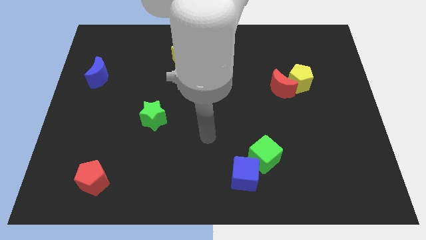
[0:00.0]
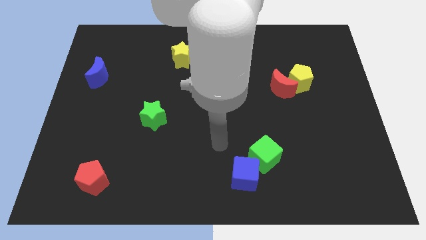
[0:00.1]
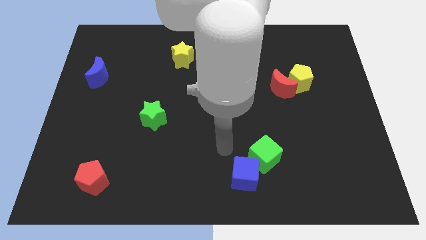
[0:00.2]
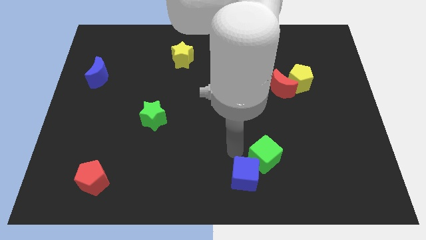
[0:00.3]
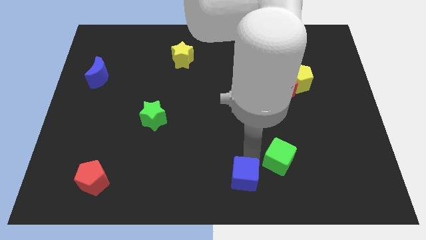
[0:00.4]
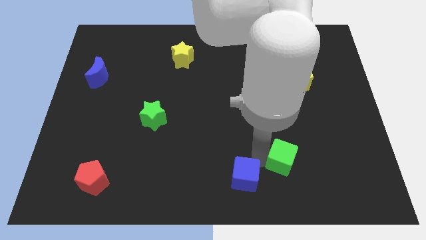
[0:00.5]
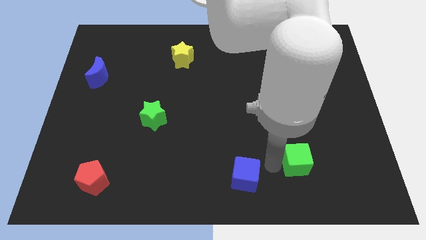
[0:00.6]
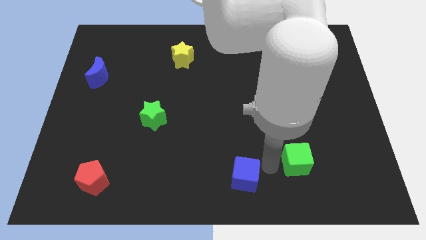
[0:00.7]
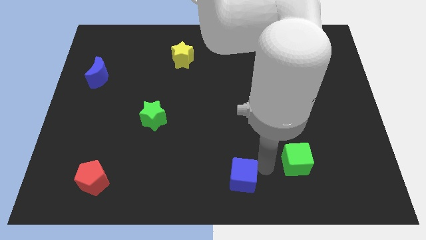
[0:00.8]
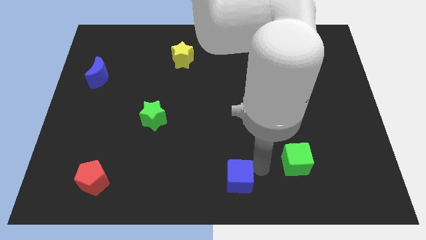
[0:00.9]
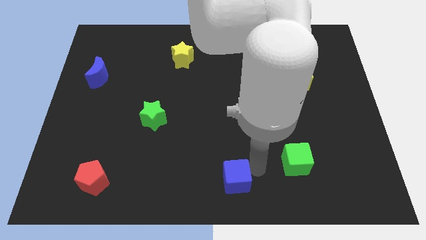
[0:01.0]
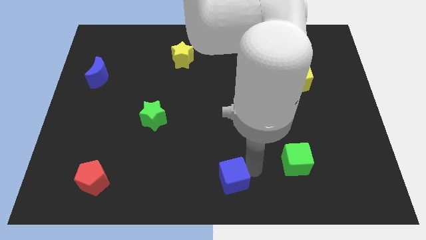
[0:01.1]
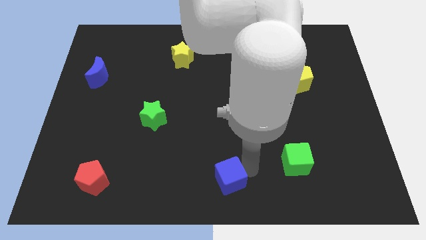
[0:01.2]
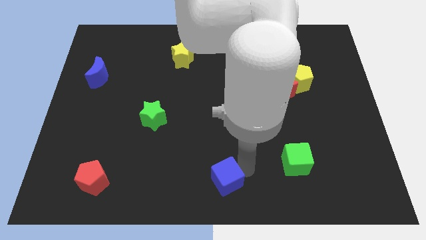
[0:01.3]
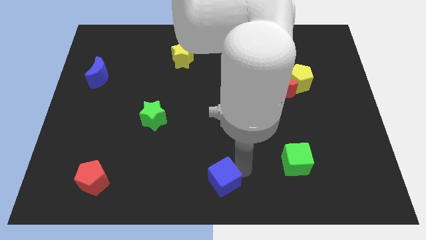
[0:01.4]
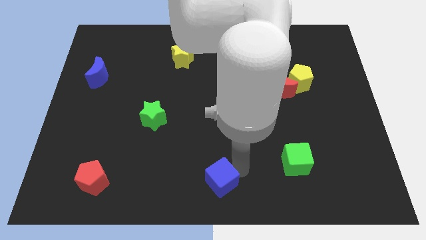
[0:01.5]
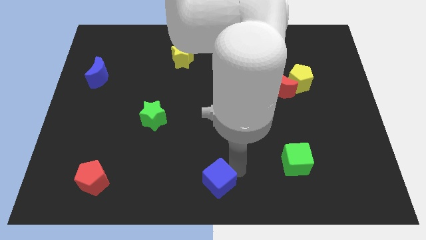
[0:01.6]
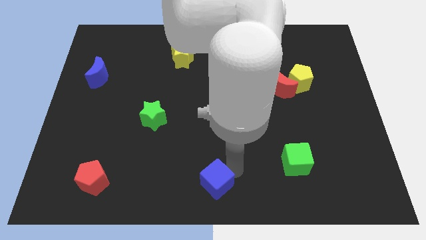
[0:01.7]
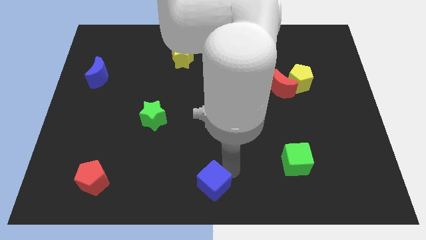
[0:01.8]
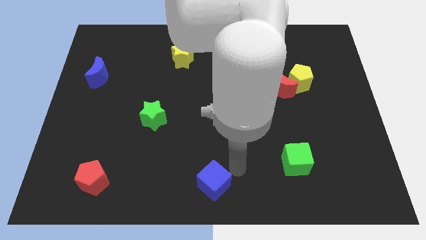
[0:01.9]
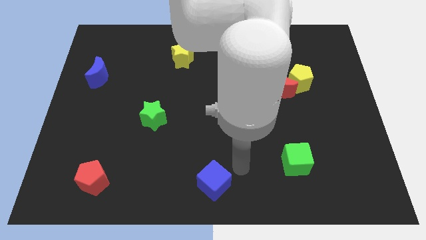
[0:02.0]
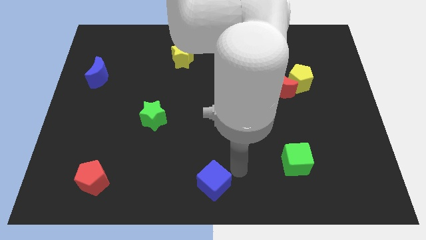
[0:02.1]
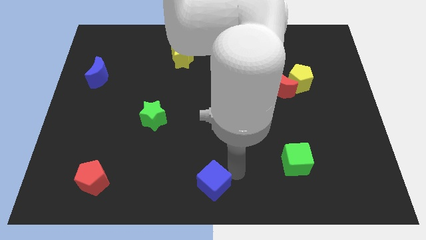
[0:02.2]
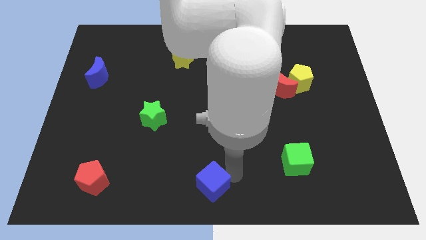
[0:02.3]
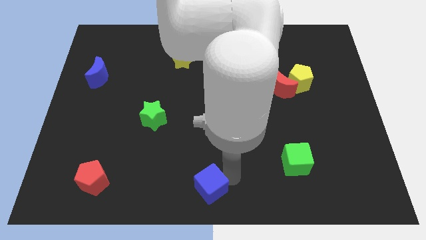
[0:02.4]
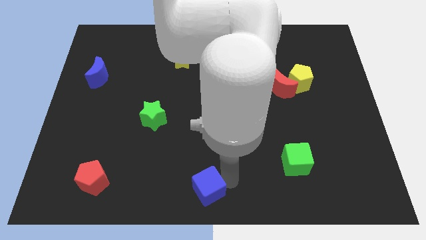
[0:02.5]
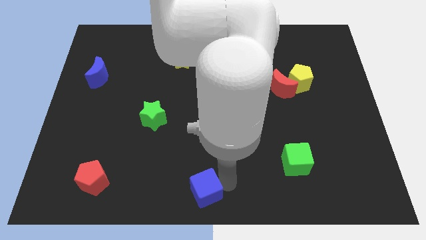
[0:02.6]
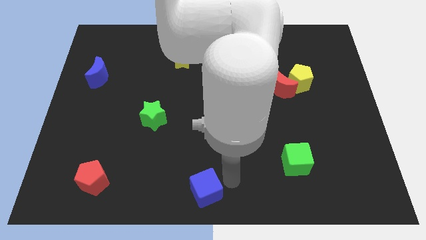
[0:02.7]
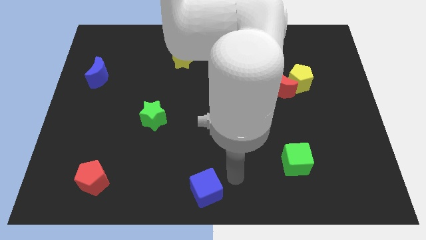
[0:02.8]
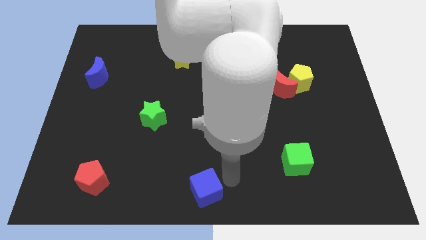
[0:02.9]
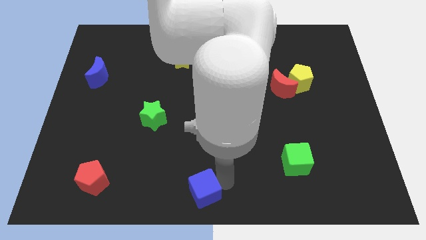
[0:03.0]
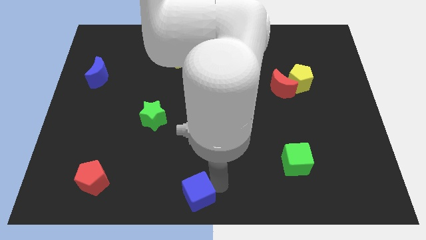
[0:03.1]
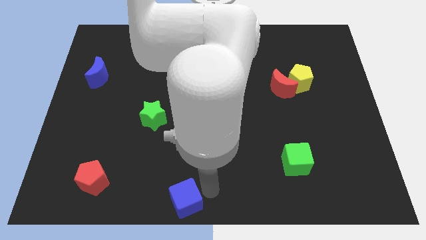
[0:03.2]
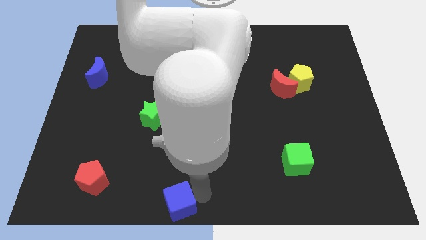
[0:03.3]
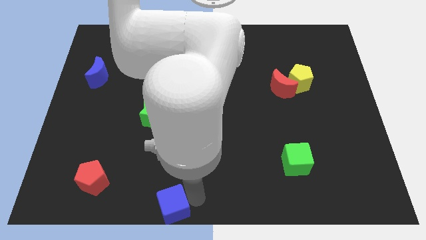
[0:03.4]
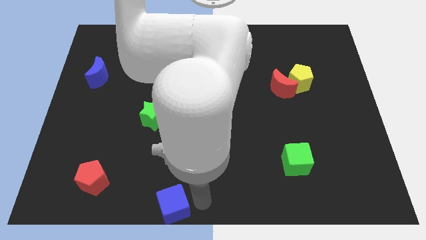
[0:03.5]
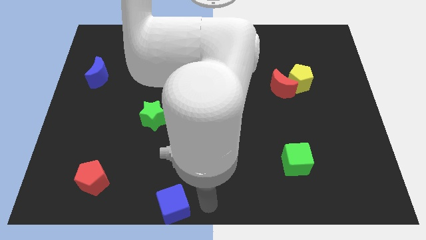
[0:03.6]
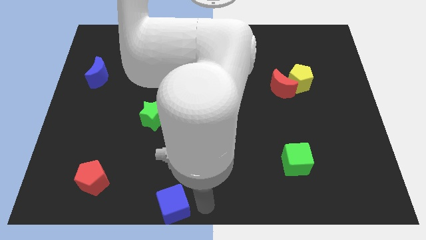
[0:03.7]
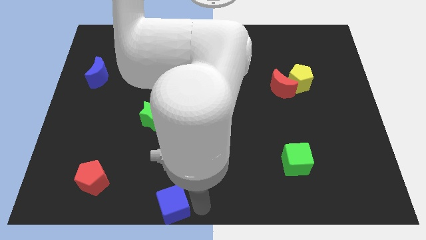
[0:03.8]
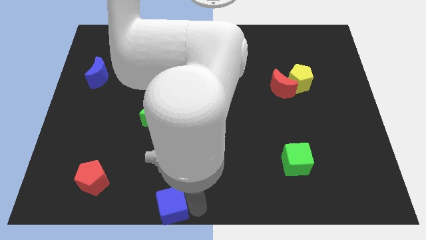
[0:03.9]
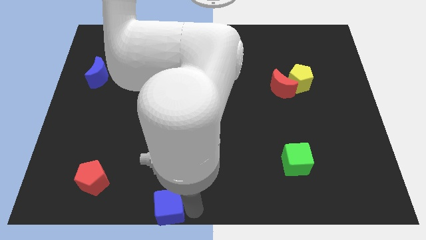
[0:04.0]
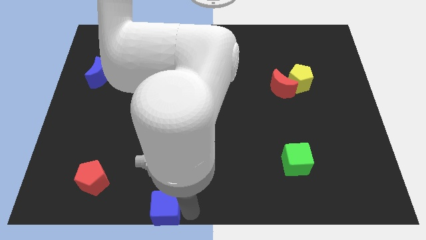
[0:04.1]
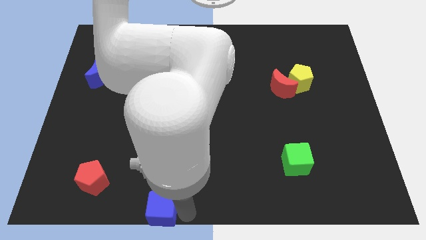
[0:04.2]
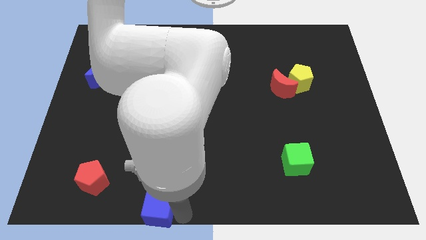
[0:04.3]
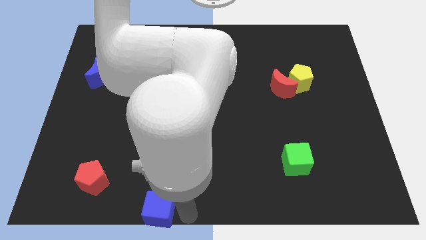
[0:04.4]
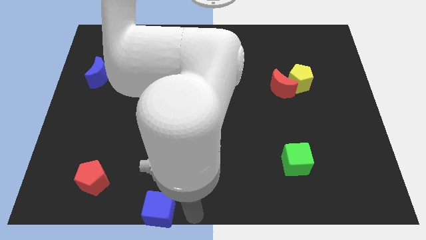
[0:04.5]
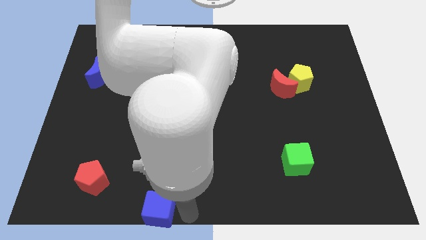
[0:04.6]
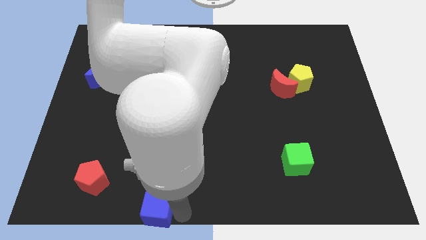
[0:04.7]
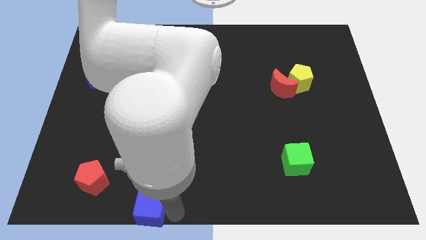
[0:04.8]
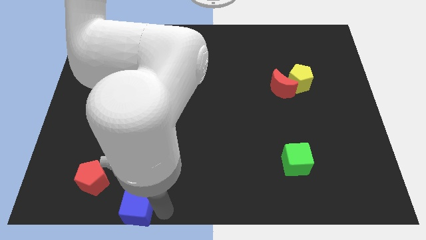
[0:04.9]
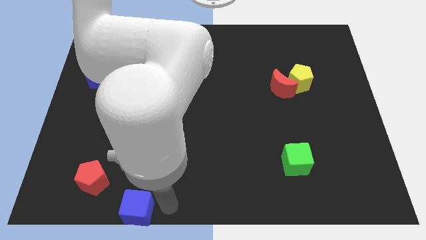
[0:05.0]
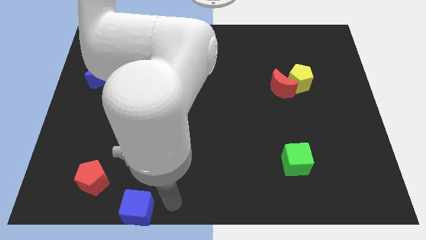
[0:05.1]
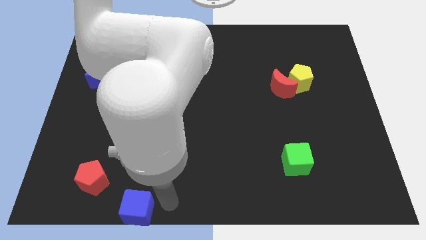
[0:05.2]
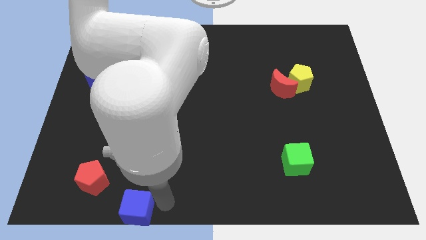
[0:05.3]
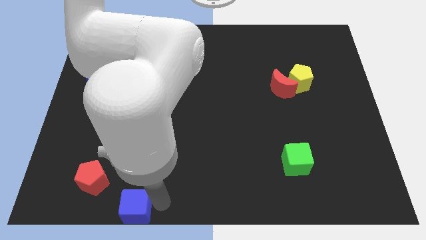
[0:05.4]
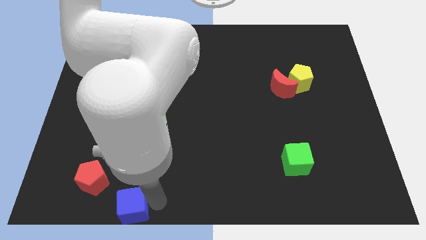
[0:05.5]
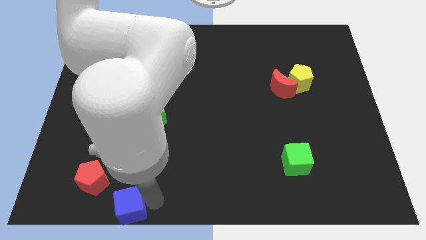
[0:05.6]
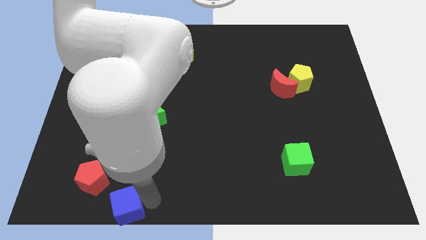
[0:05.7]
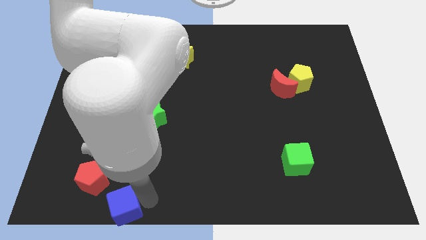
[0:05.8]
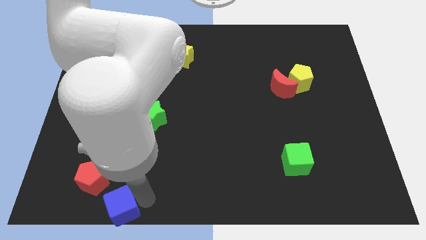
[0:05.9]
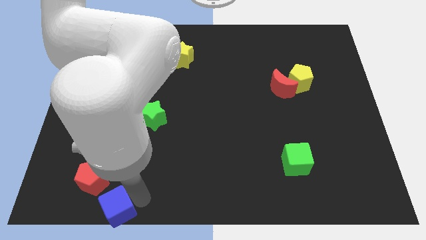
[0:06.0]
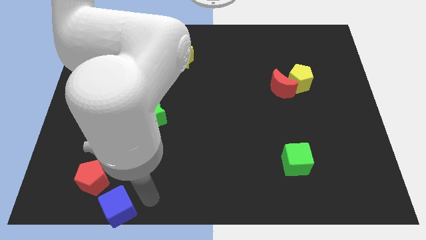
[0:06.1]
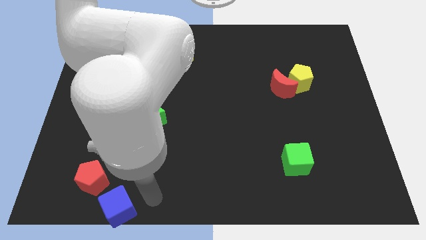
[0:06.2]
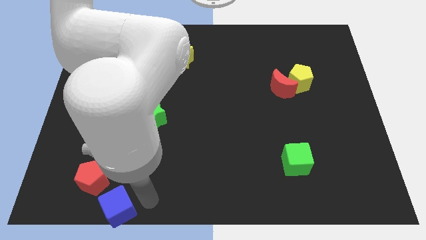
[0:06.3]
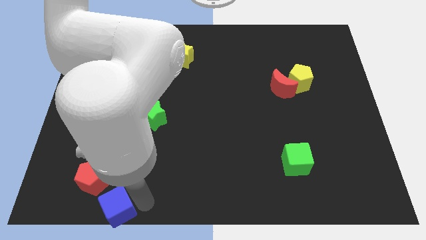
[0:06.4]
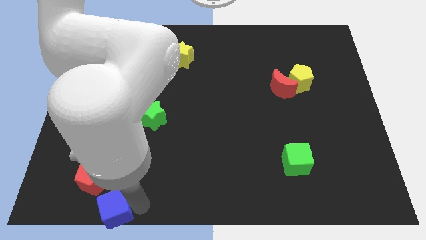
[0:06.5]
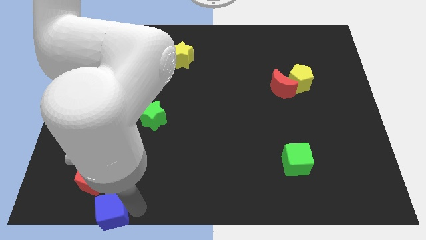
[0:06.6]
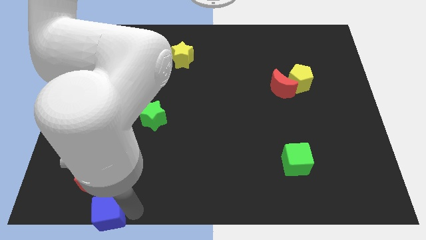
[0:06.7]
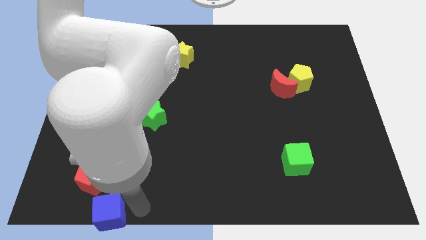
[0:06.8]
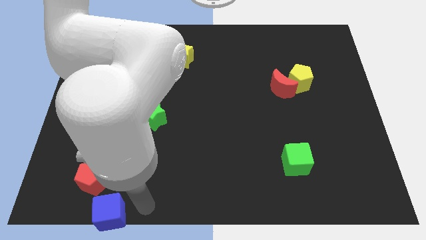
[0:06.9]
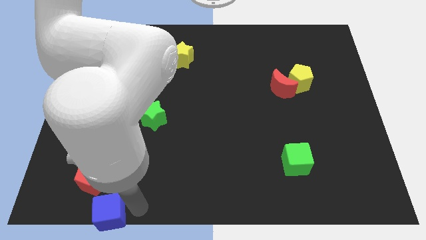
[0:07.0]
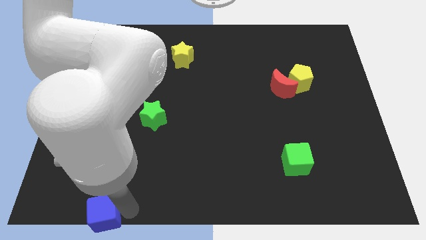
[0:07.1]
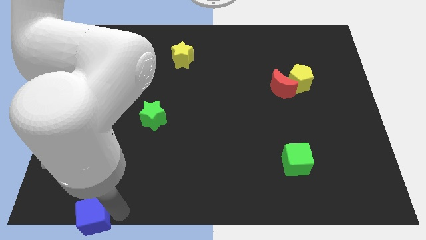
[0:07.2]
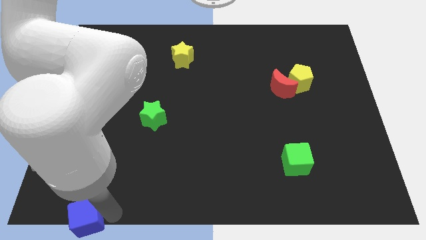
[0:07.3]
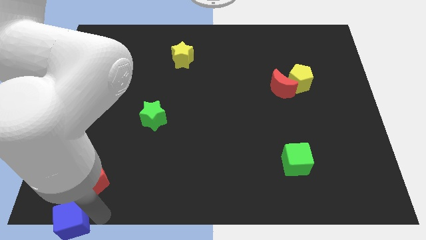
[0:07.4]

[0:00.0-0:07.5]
move the blue cube to the bottom left
